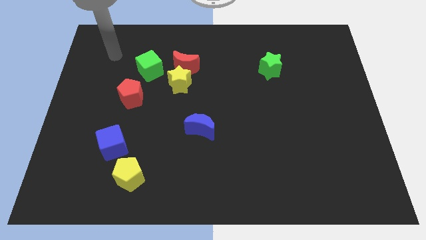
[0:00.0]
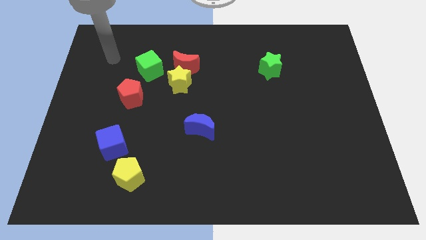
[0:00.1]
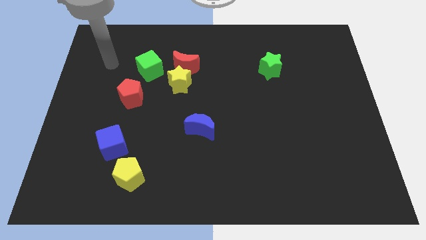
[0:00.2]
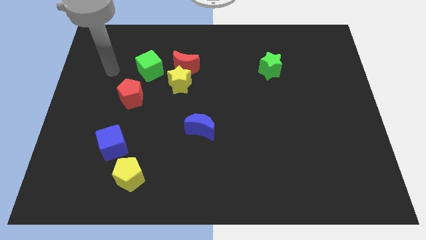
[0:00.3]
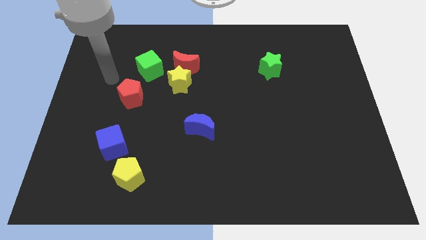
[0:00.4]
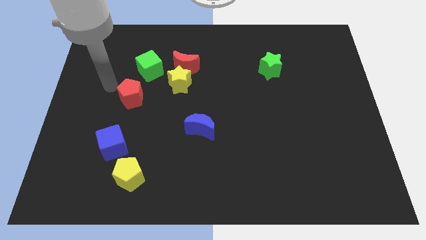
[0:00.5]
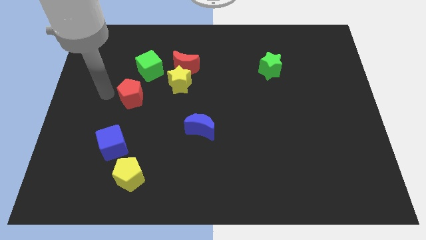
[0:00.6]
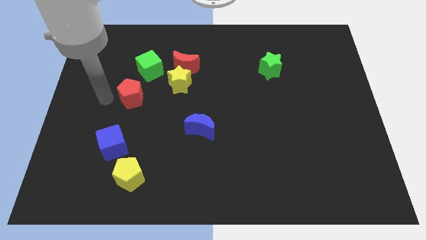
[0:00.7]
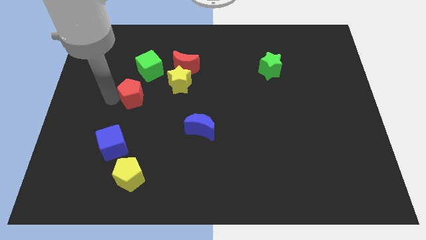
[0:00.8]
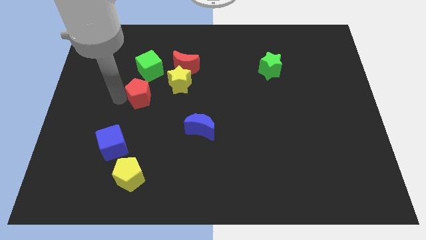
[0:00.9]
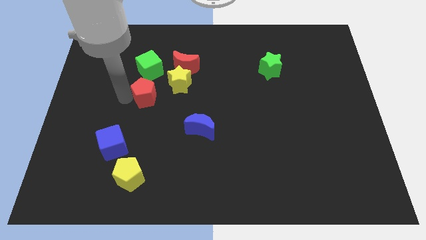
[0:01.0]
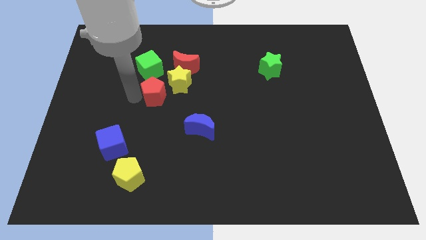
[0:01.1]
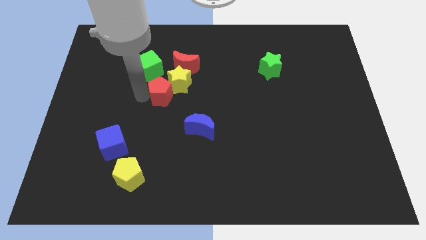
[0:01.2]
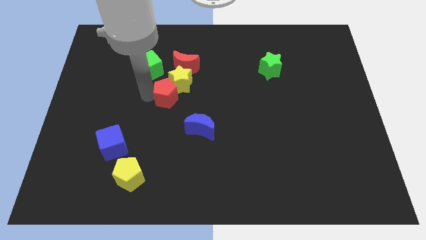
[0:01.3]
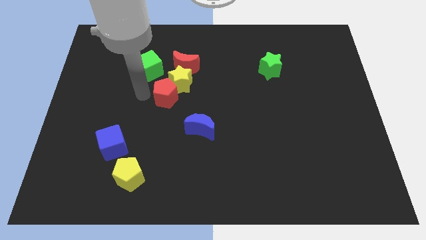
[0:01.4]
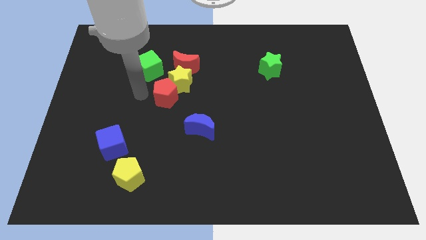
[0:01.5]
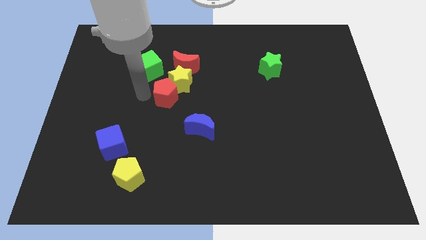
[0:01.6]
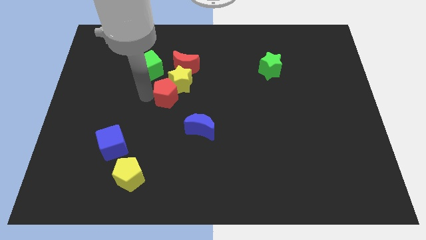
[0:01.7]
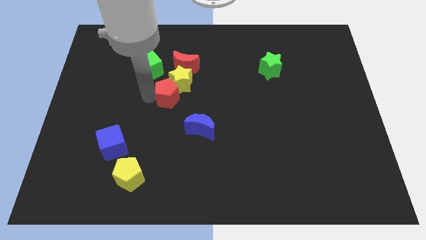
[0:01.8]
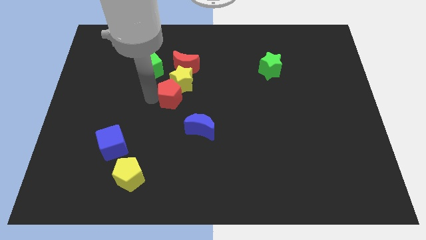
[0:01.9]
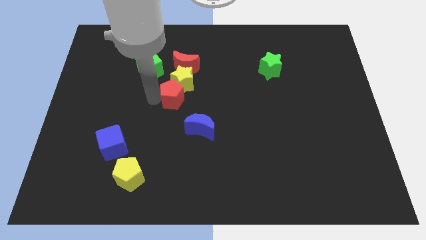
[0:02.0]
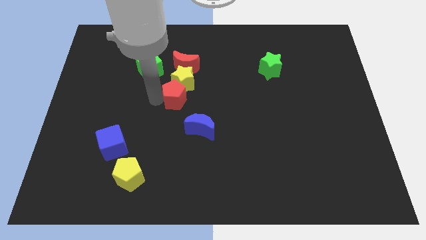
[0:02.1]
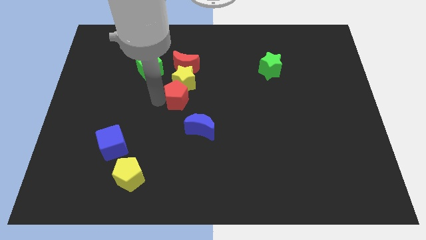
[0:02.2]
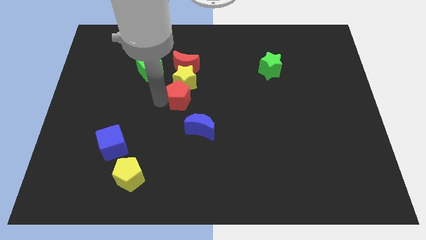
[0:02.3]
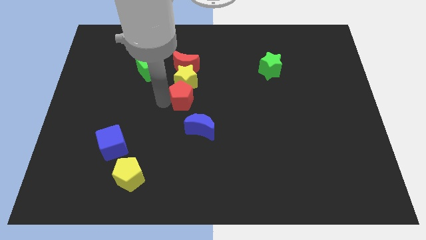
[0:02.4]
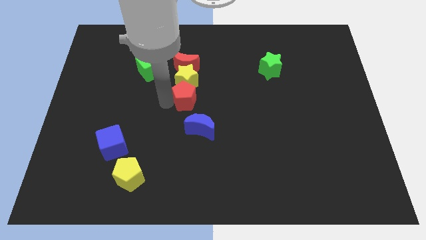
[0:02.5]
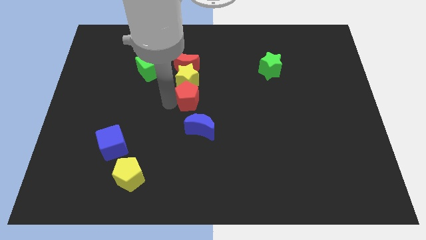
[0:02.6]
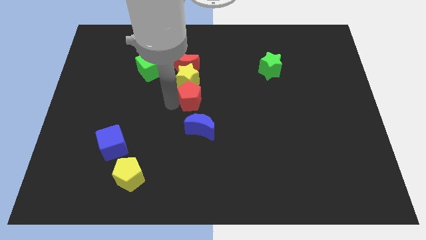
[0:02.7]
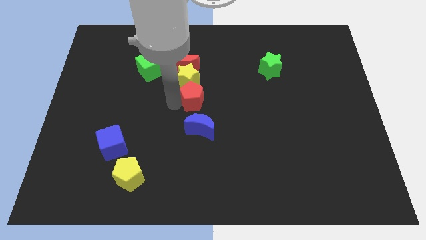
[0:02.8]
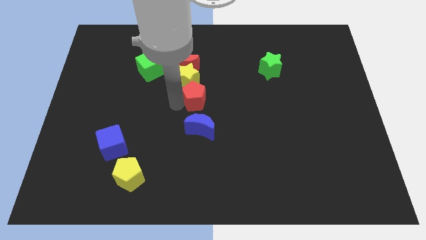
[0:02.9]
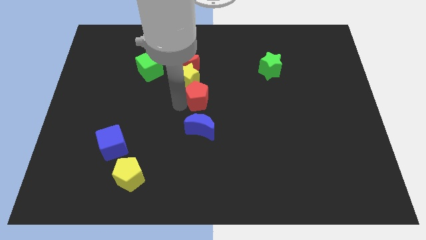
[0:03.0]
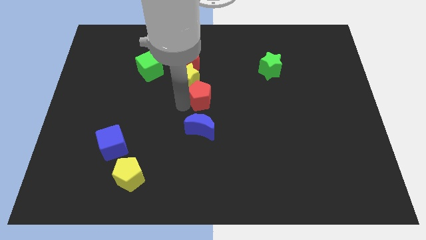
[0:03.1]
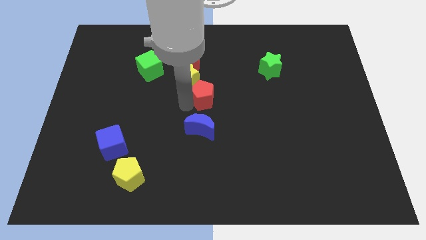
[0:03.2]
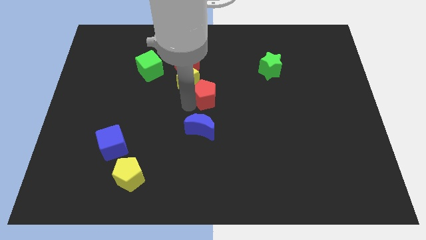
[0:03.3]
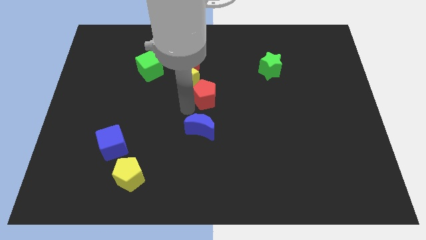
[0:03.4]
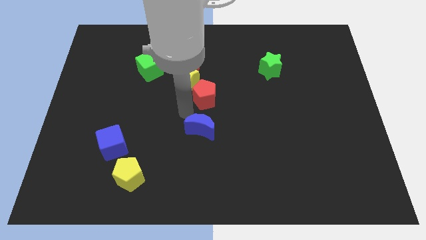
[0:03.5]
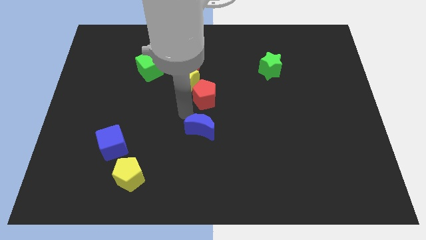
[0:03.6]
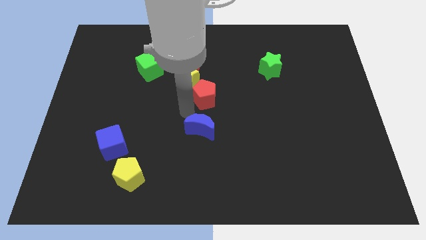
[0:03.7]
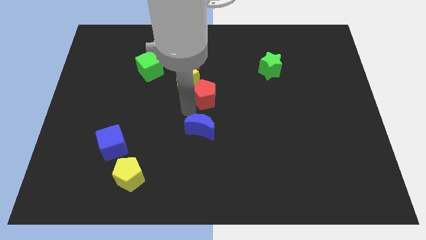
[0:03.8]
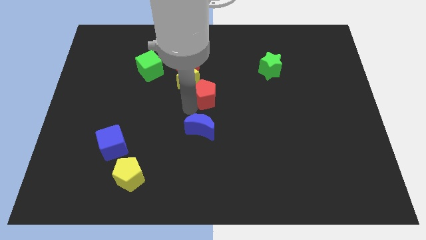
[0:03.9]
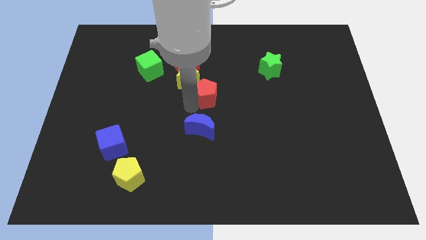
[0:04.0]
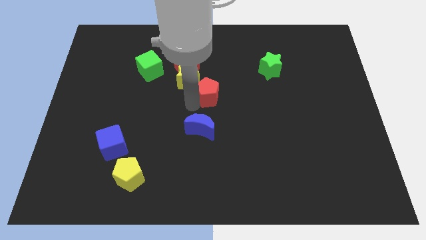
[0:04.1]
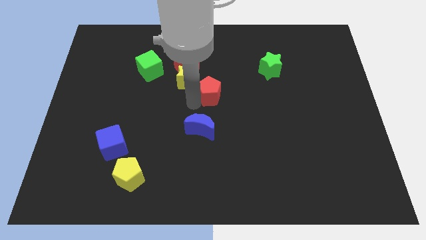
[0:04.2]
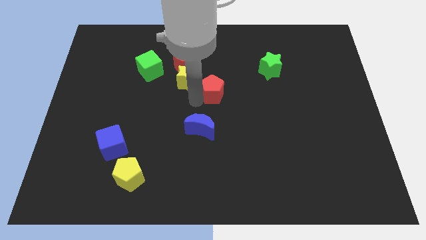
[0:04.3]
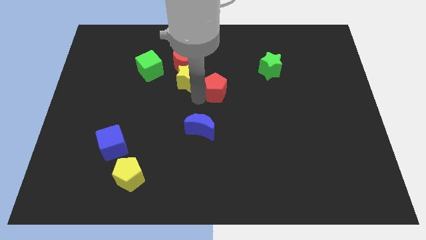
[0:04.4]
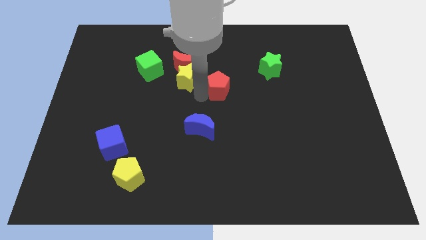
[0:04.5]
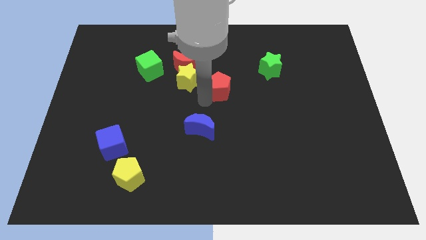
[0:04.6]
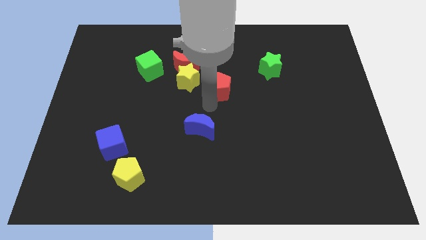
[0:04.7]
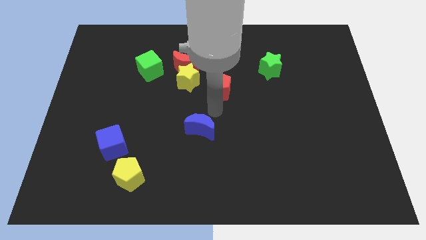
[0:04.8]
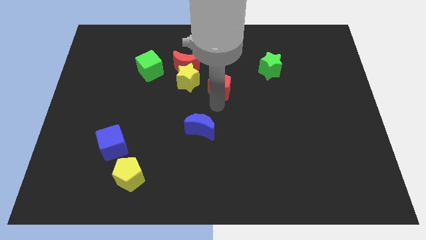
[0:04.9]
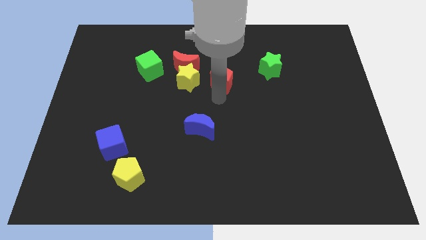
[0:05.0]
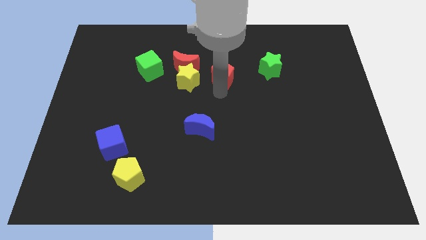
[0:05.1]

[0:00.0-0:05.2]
move the red pentagon to the right side of the red moon

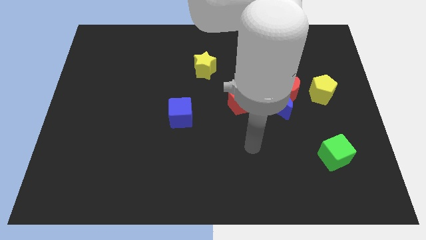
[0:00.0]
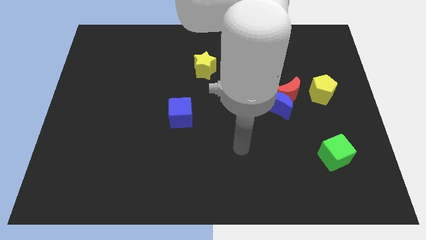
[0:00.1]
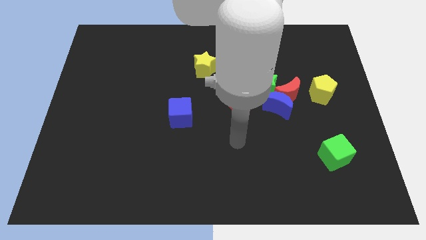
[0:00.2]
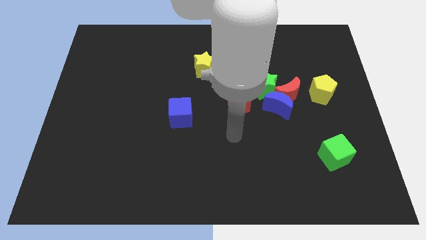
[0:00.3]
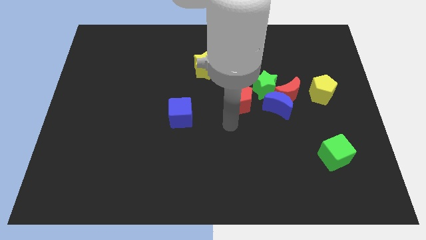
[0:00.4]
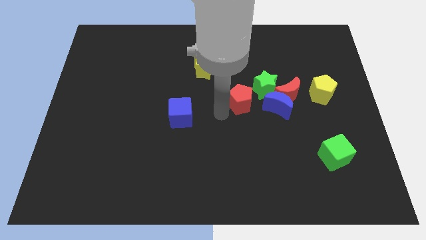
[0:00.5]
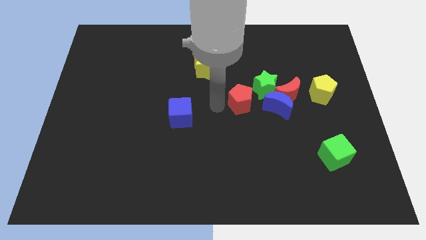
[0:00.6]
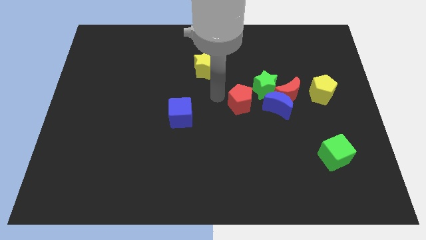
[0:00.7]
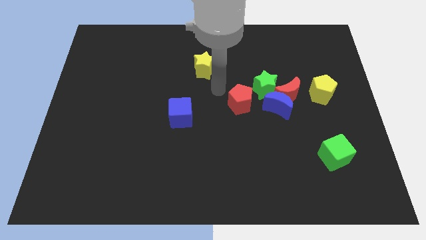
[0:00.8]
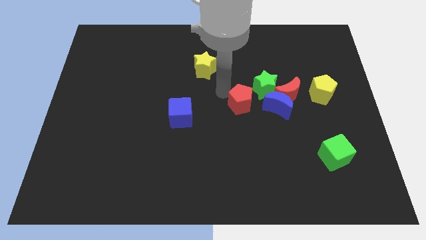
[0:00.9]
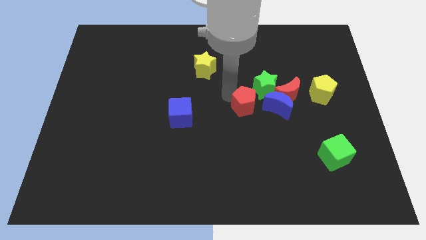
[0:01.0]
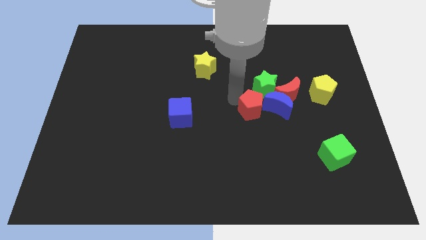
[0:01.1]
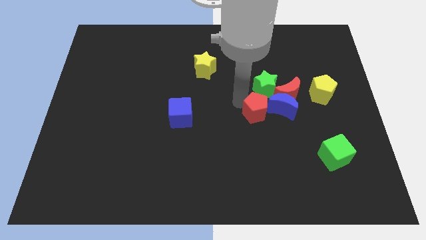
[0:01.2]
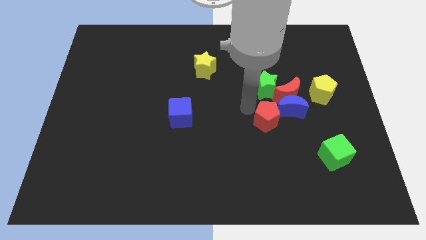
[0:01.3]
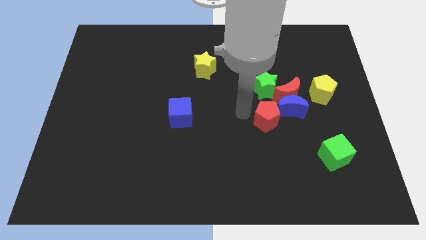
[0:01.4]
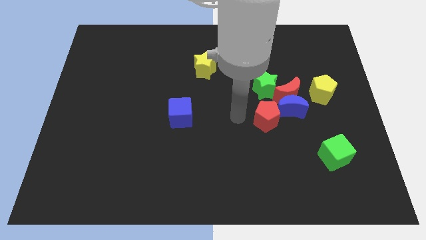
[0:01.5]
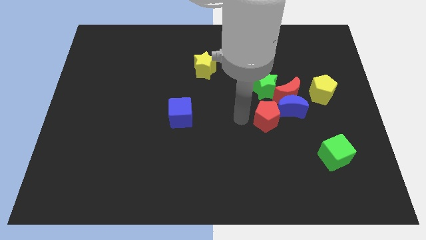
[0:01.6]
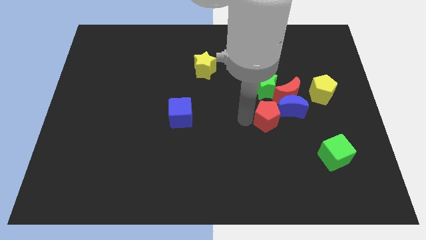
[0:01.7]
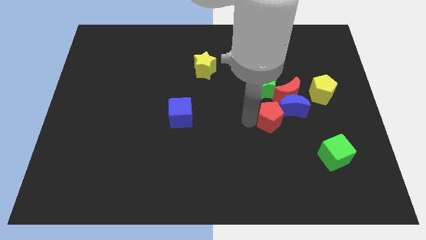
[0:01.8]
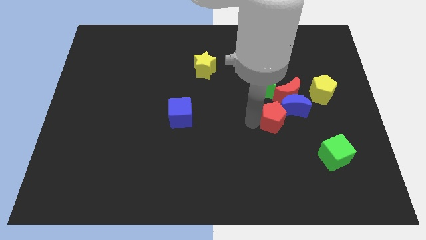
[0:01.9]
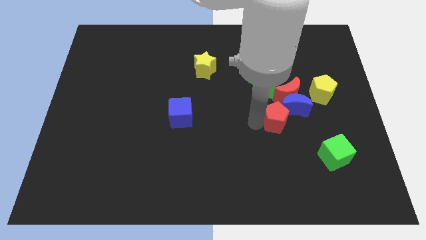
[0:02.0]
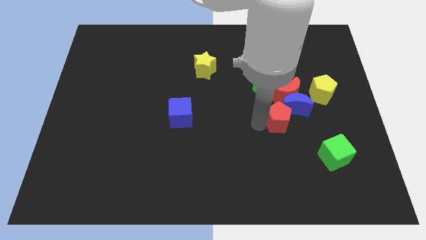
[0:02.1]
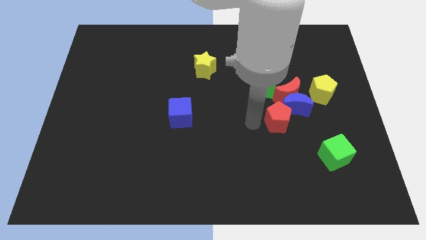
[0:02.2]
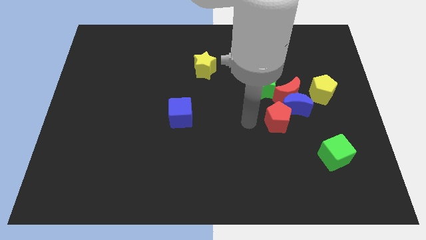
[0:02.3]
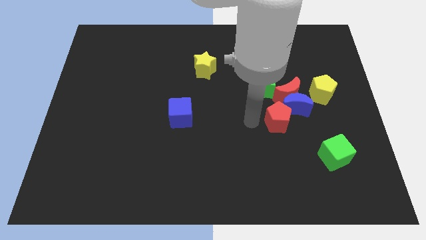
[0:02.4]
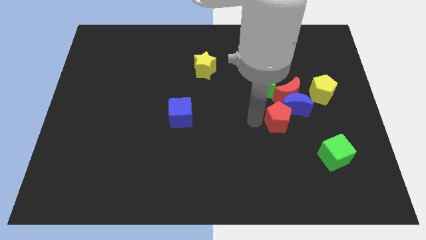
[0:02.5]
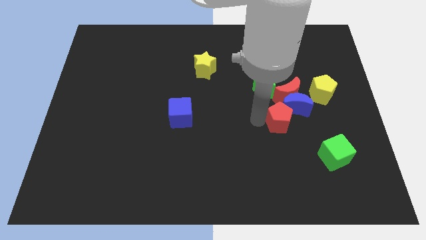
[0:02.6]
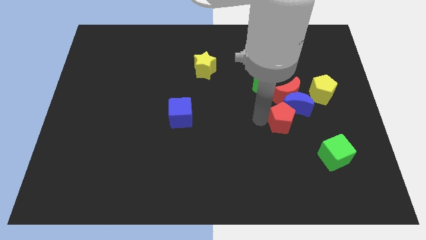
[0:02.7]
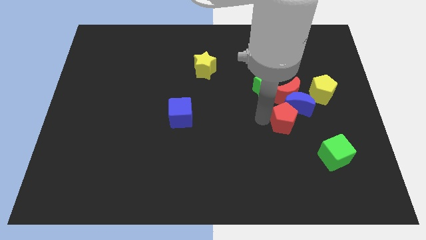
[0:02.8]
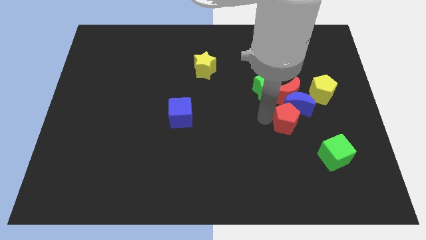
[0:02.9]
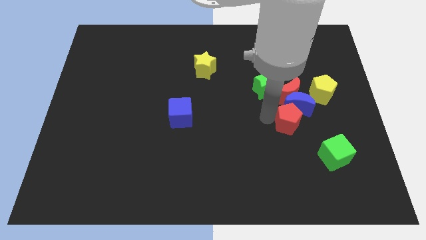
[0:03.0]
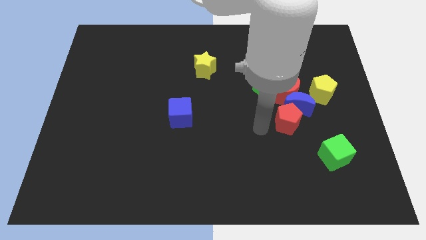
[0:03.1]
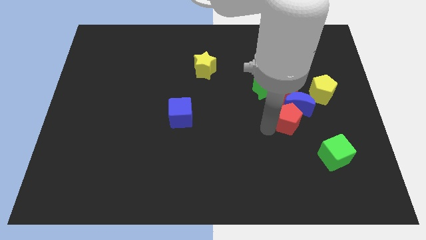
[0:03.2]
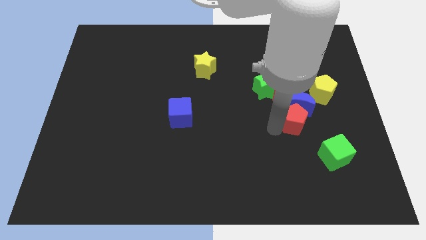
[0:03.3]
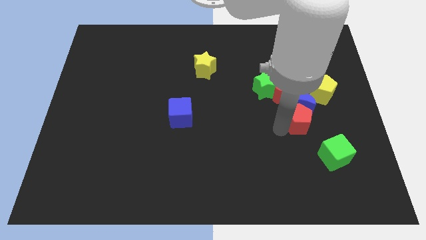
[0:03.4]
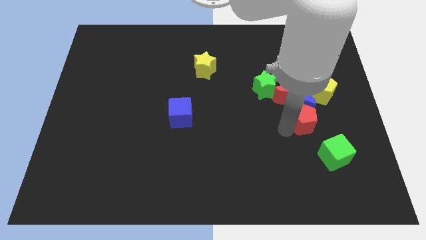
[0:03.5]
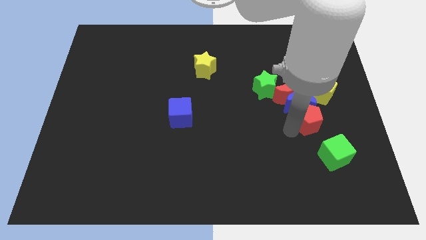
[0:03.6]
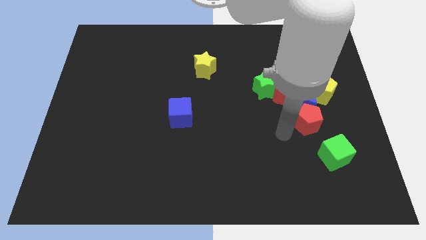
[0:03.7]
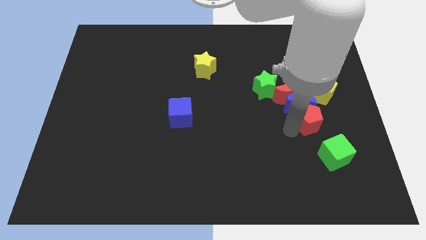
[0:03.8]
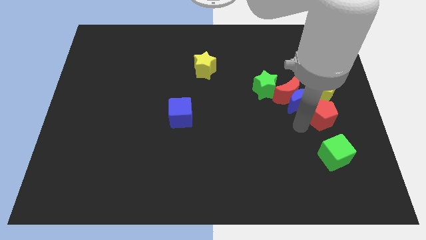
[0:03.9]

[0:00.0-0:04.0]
put the red pentagon just right of the blue moon
